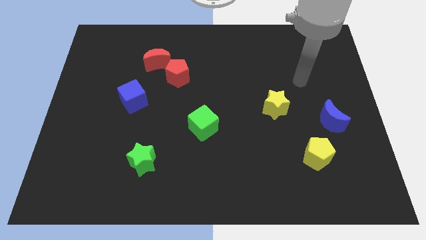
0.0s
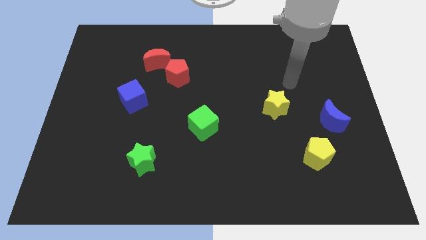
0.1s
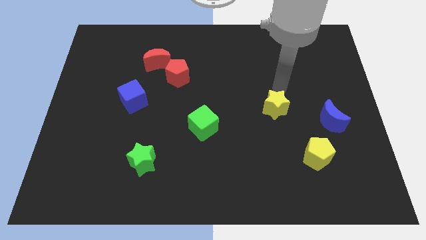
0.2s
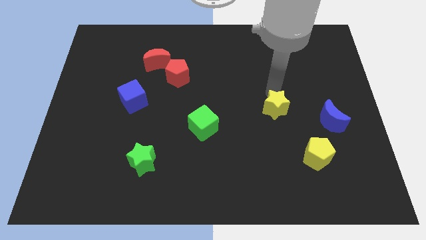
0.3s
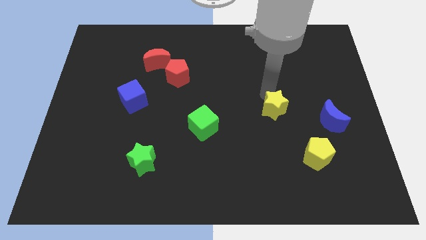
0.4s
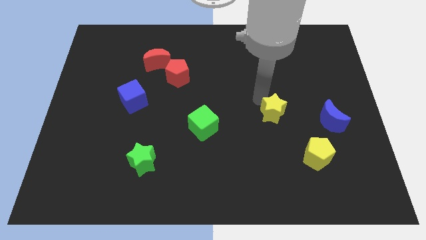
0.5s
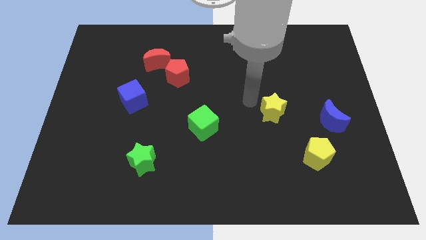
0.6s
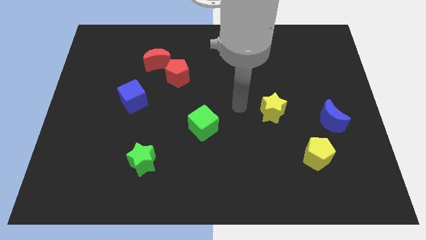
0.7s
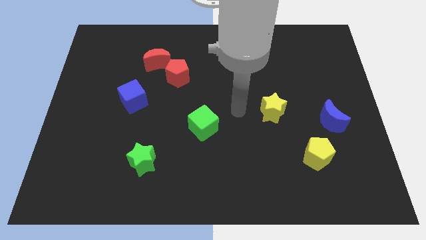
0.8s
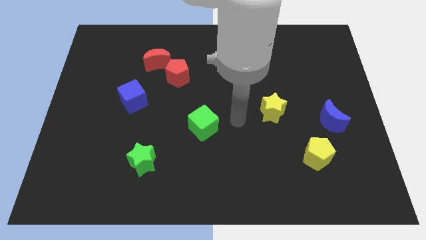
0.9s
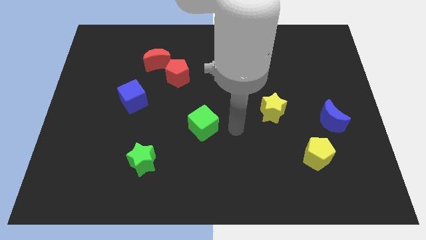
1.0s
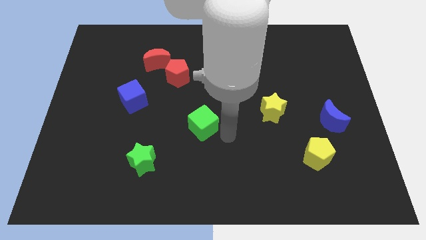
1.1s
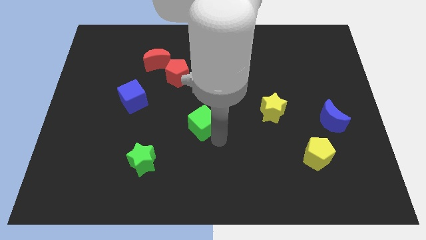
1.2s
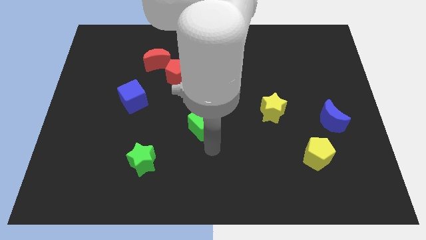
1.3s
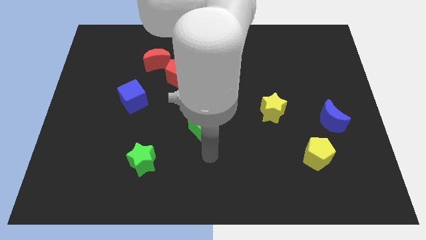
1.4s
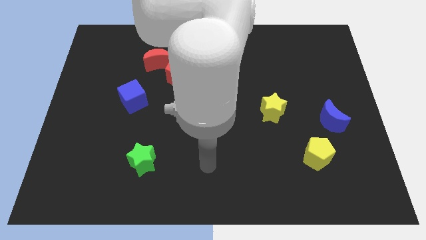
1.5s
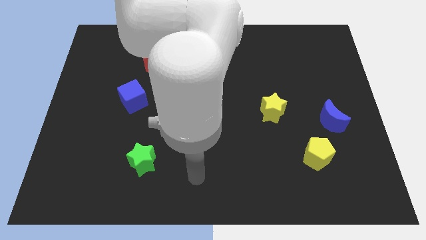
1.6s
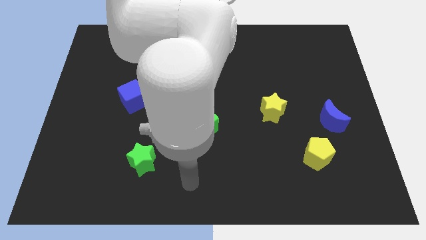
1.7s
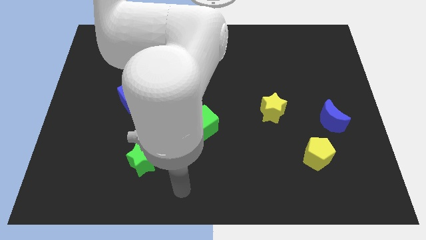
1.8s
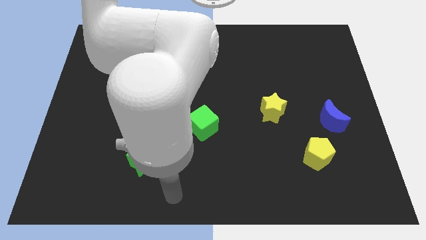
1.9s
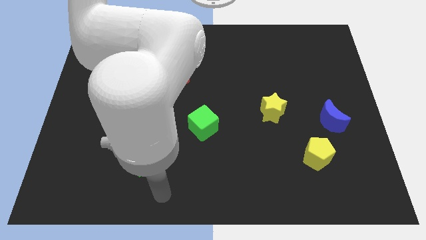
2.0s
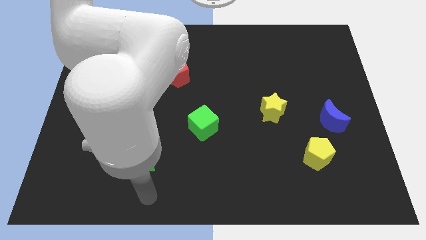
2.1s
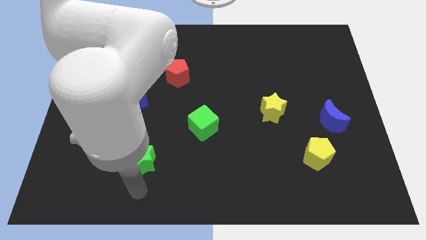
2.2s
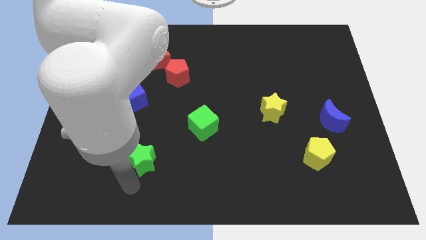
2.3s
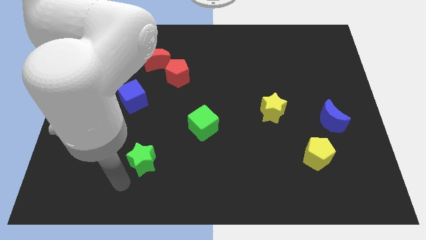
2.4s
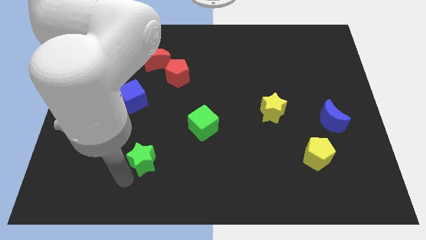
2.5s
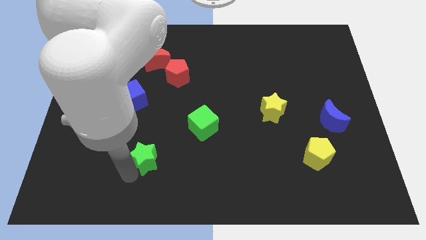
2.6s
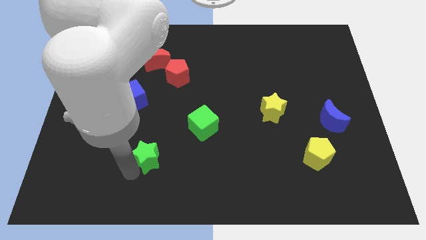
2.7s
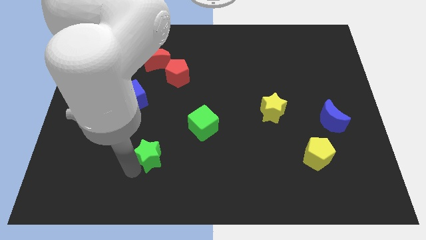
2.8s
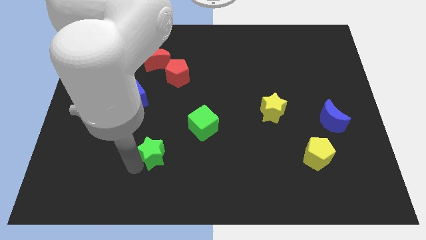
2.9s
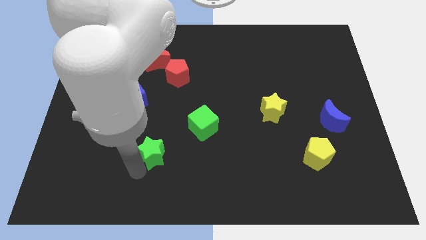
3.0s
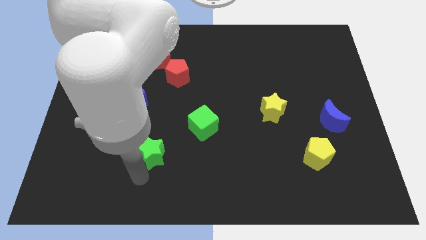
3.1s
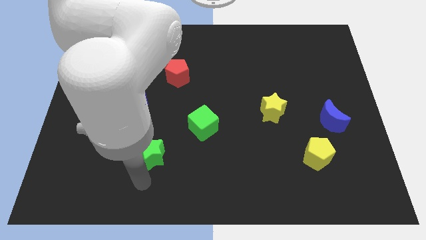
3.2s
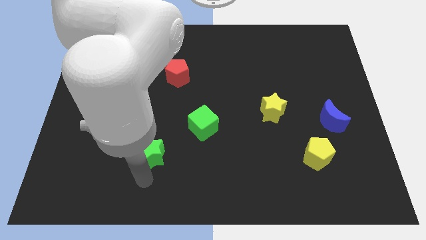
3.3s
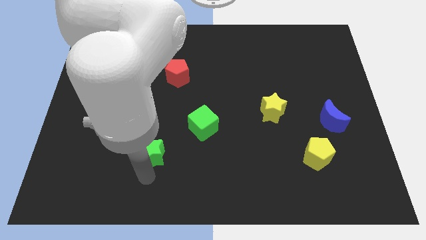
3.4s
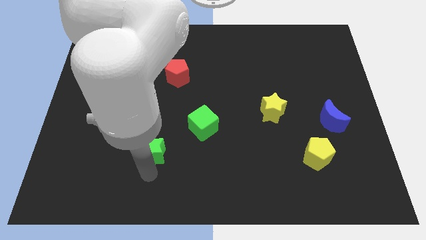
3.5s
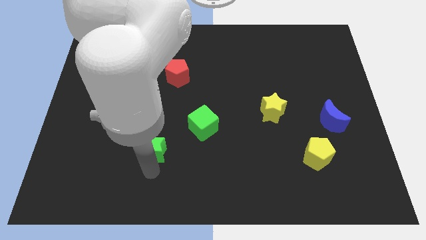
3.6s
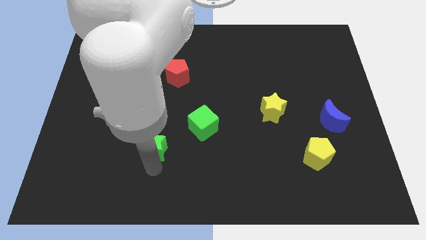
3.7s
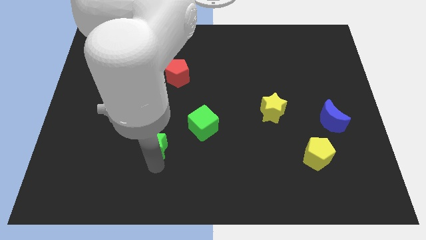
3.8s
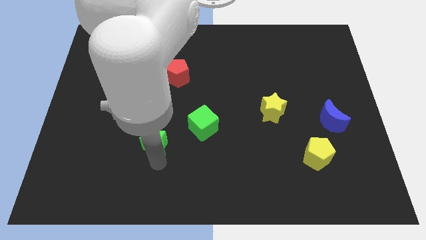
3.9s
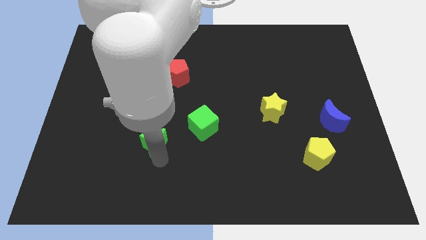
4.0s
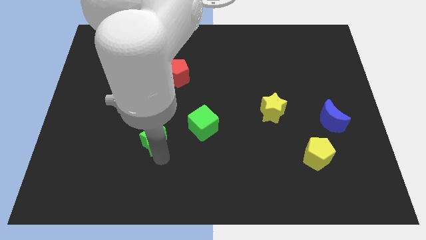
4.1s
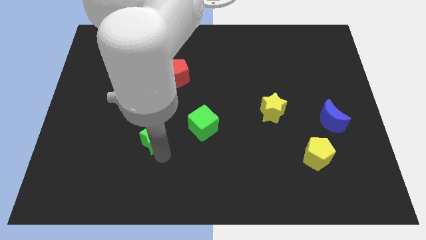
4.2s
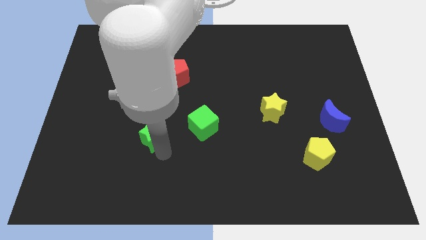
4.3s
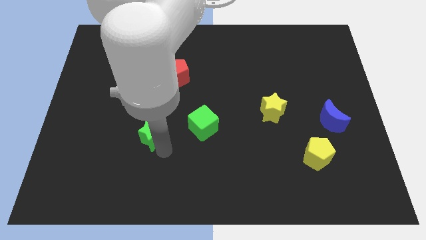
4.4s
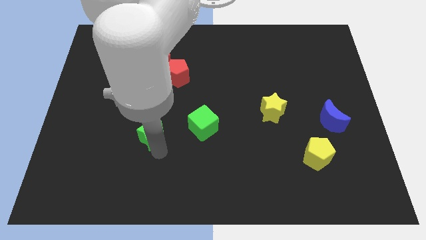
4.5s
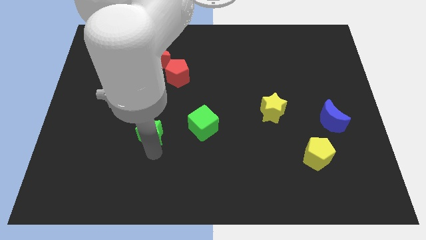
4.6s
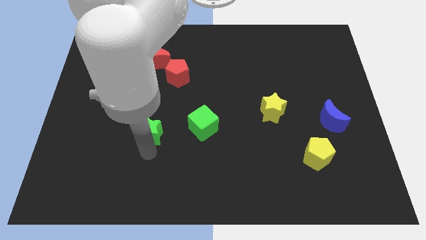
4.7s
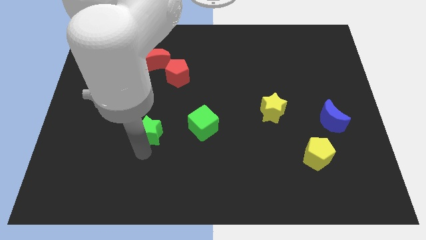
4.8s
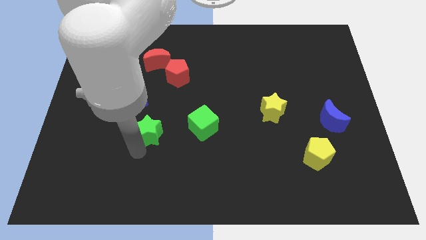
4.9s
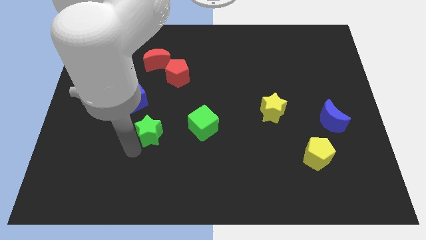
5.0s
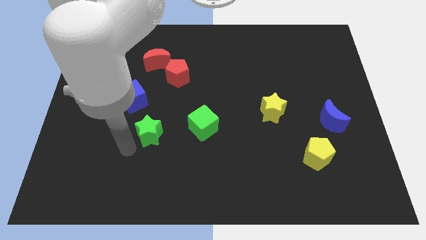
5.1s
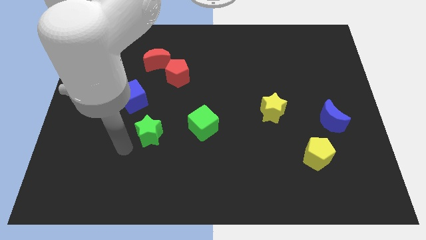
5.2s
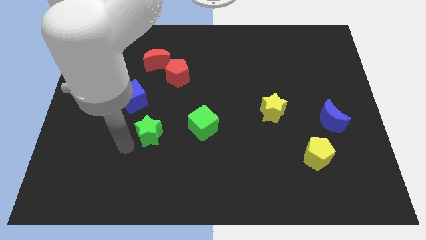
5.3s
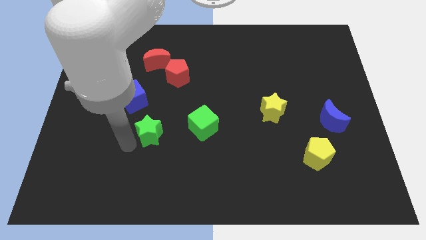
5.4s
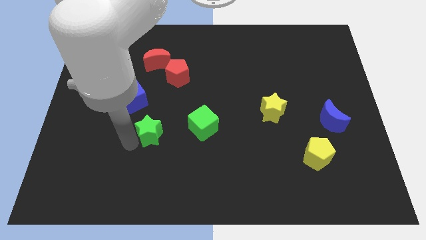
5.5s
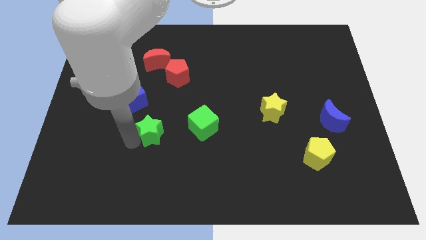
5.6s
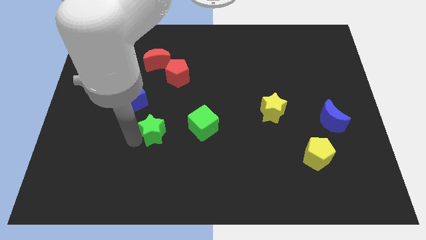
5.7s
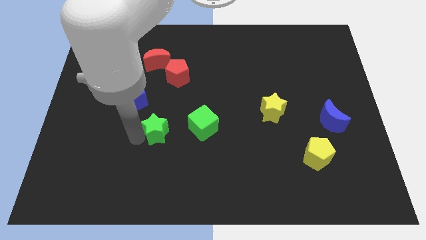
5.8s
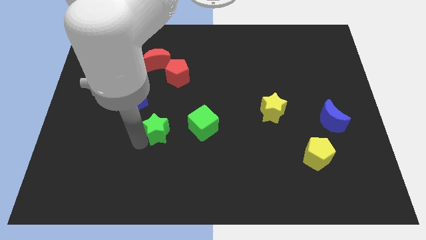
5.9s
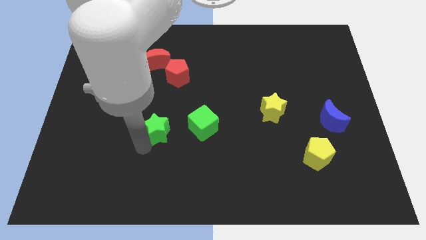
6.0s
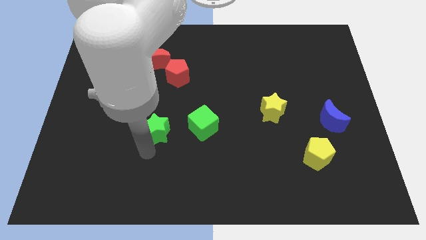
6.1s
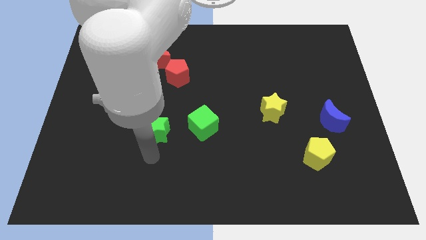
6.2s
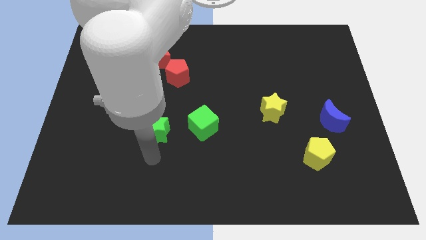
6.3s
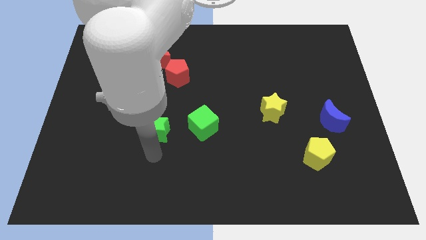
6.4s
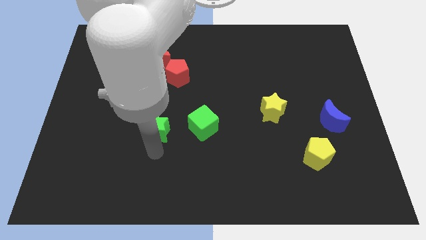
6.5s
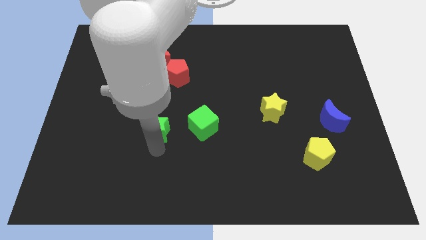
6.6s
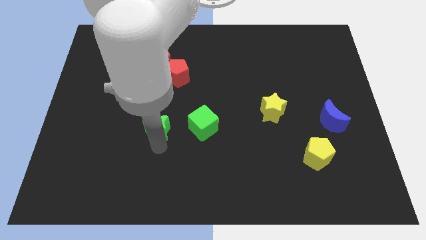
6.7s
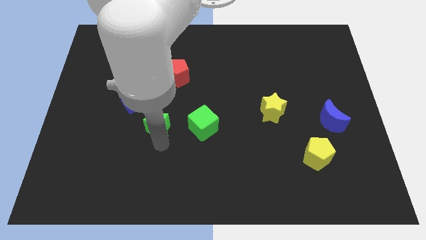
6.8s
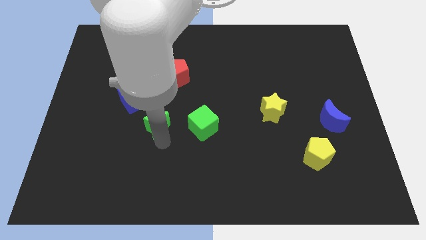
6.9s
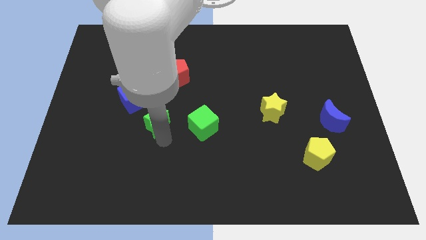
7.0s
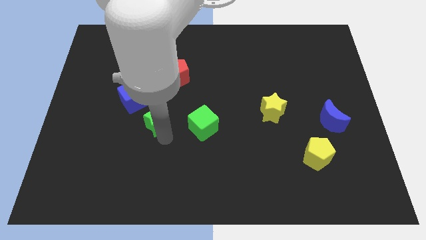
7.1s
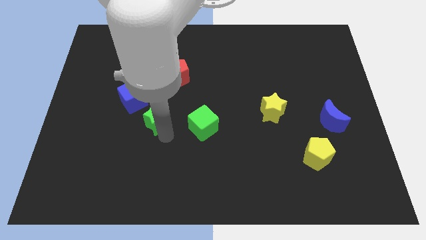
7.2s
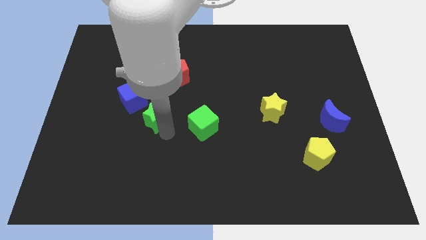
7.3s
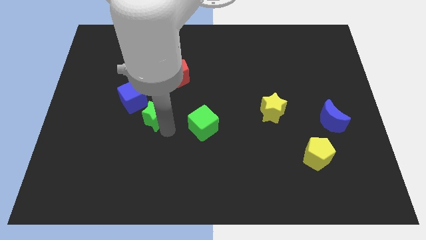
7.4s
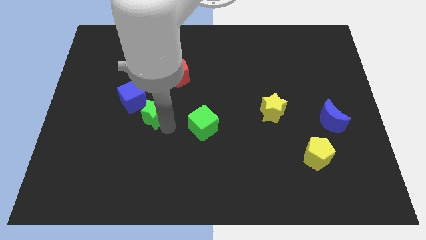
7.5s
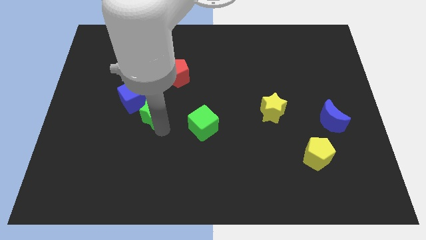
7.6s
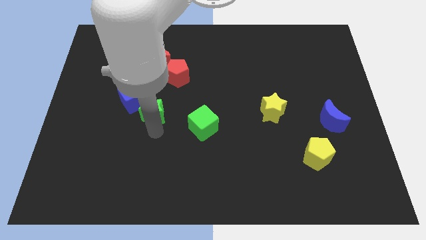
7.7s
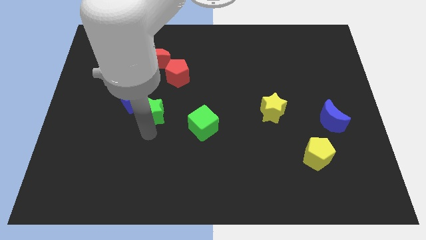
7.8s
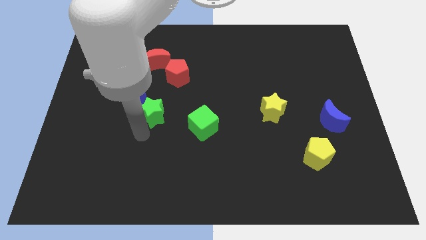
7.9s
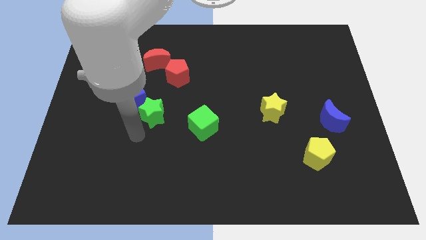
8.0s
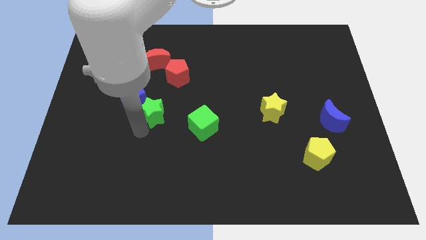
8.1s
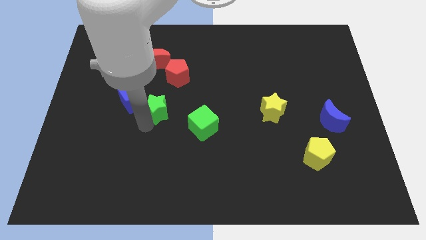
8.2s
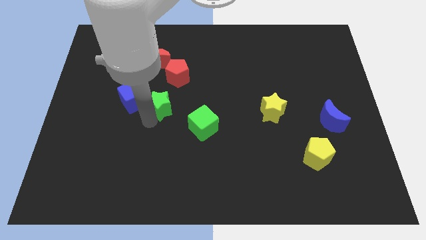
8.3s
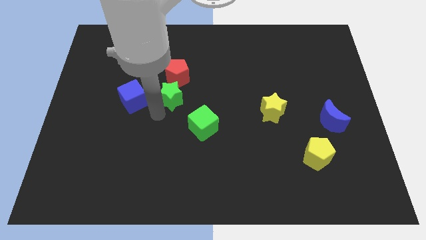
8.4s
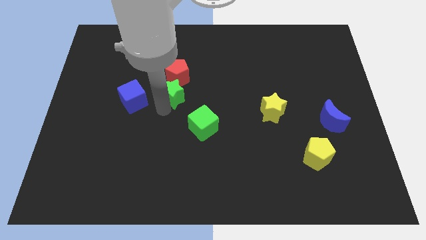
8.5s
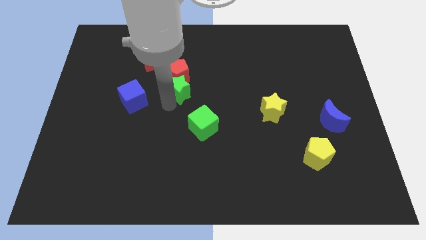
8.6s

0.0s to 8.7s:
move the green star next to the red pentagon
